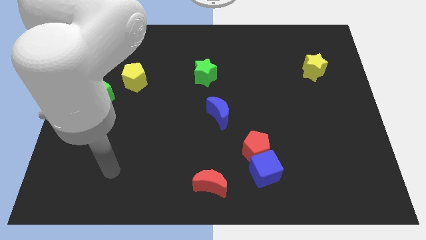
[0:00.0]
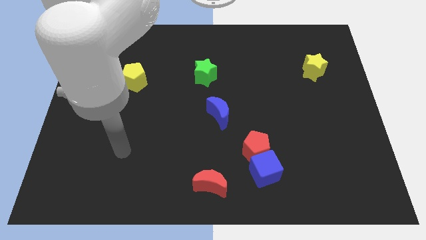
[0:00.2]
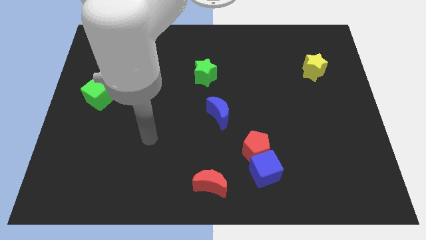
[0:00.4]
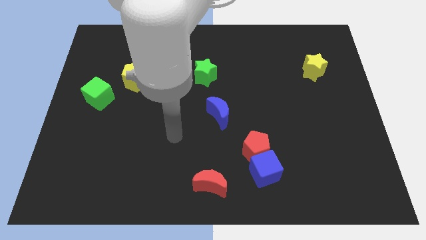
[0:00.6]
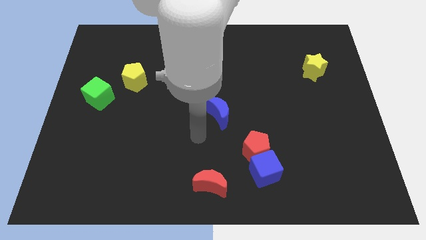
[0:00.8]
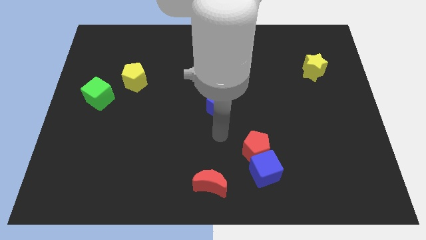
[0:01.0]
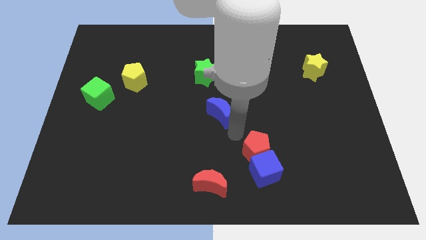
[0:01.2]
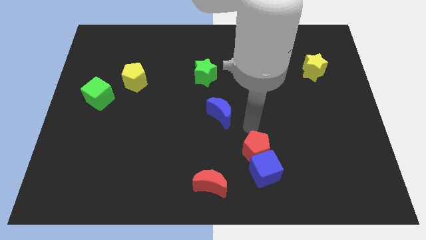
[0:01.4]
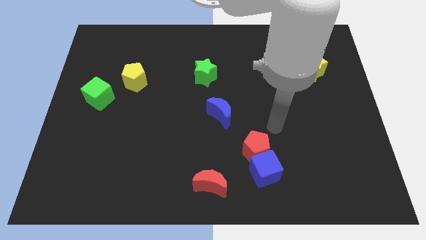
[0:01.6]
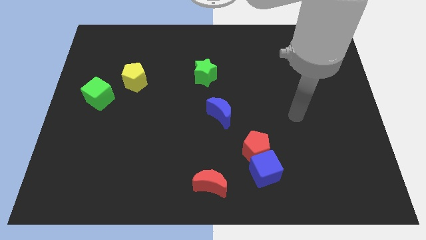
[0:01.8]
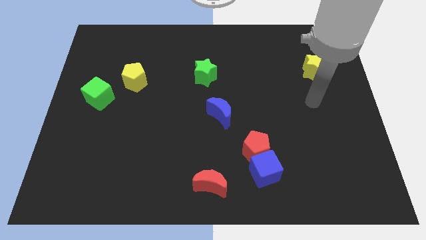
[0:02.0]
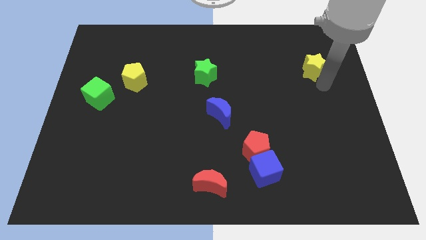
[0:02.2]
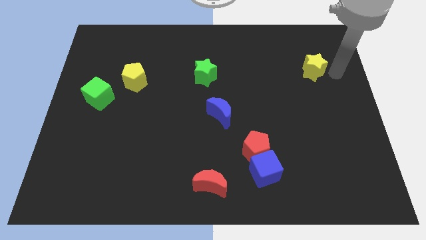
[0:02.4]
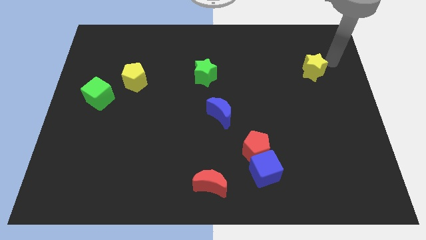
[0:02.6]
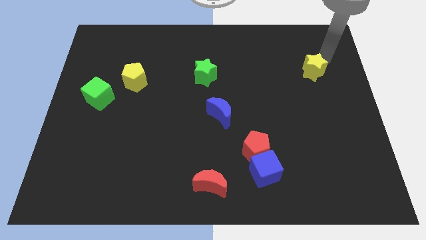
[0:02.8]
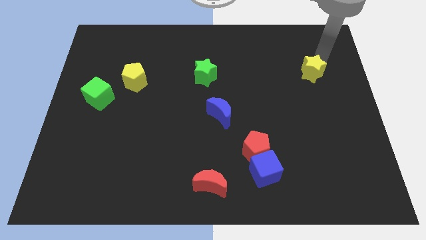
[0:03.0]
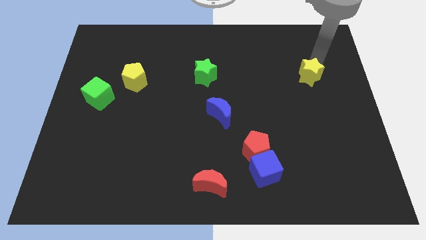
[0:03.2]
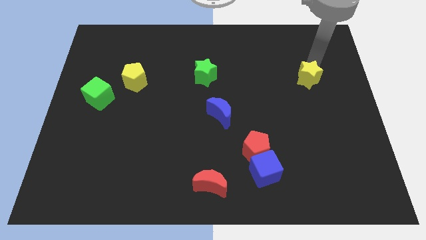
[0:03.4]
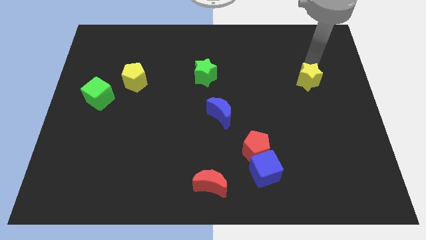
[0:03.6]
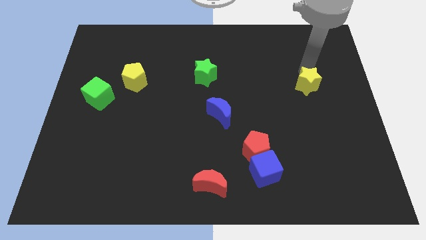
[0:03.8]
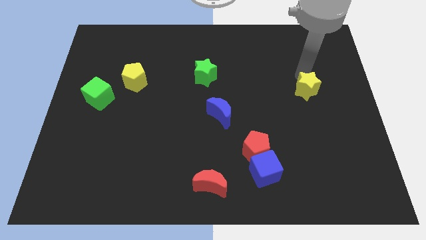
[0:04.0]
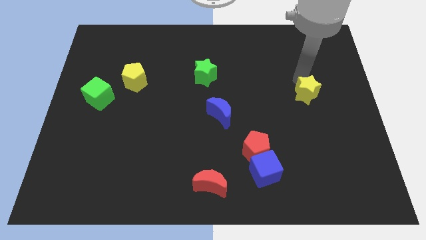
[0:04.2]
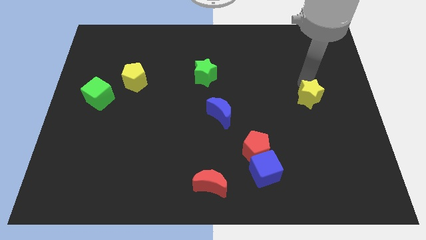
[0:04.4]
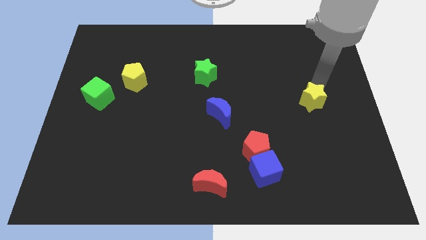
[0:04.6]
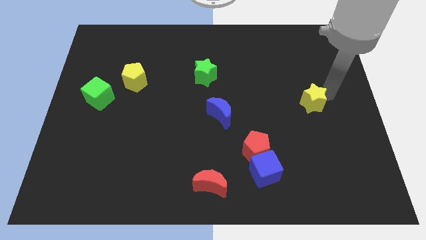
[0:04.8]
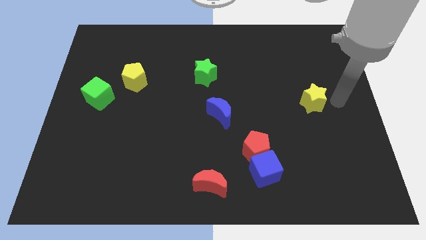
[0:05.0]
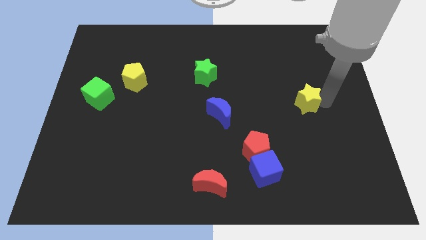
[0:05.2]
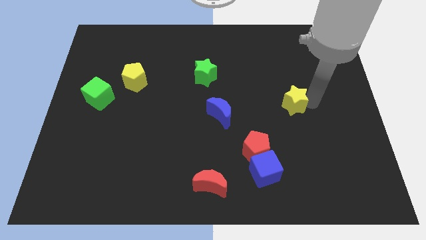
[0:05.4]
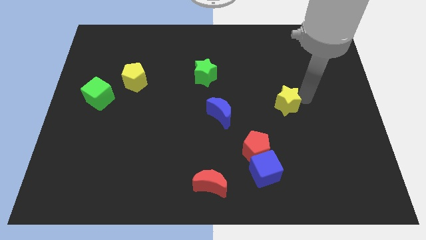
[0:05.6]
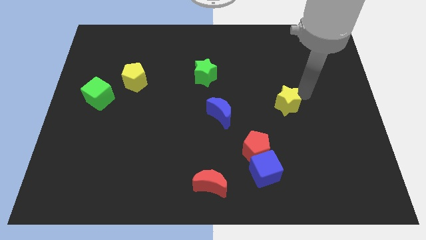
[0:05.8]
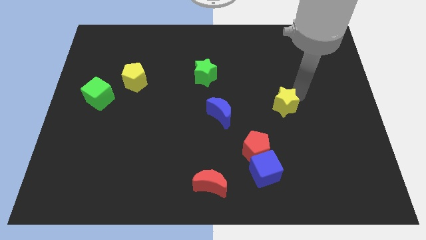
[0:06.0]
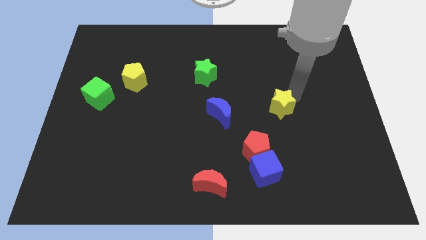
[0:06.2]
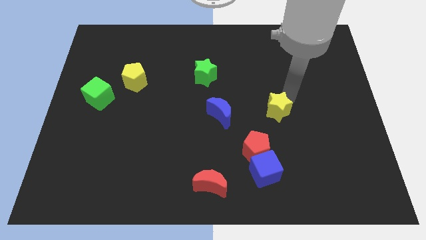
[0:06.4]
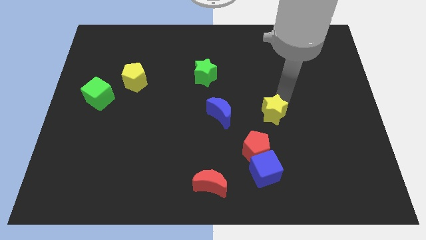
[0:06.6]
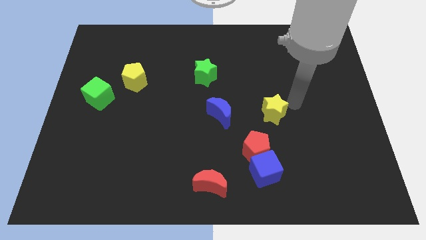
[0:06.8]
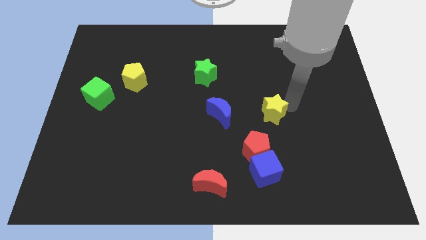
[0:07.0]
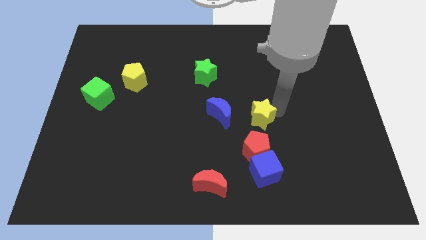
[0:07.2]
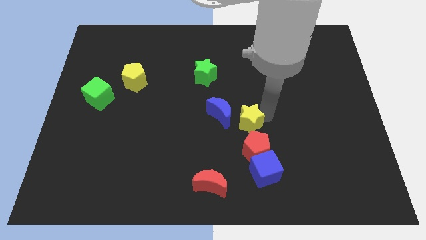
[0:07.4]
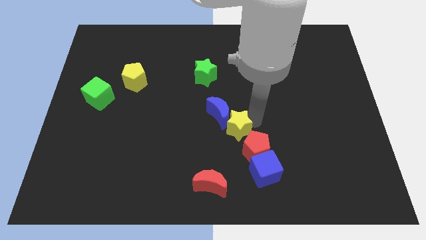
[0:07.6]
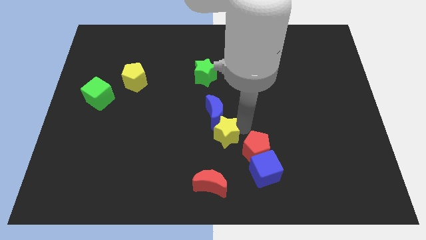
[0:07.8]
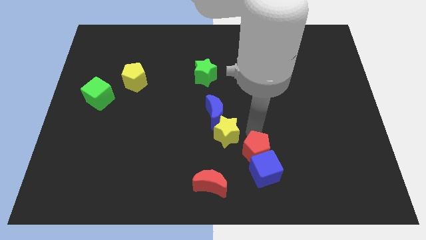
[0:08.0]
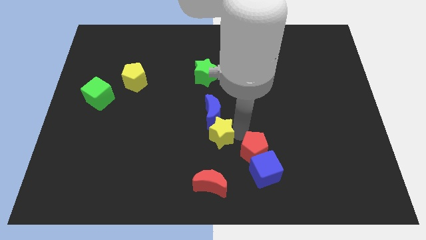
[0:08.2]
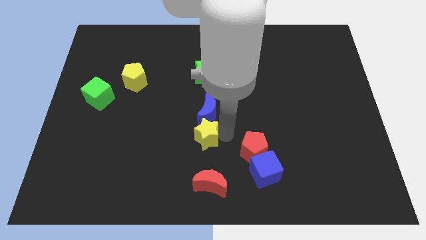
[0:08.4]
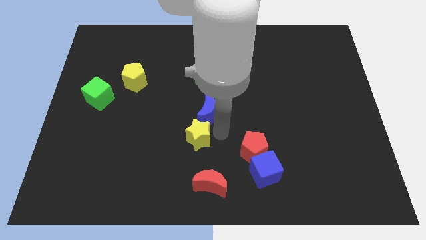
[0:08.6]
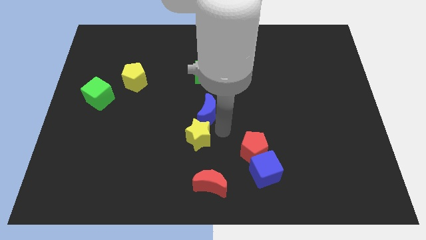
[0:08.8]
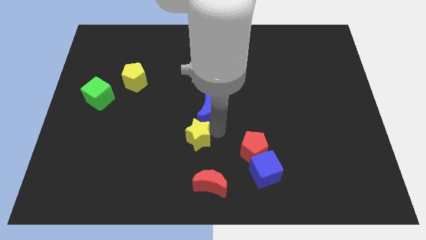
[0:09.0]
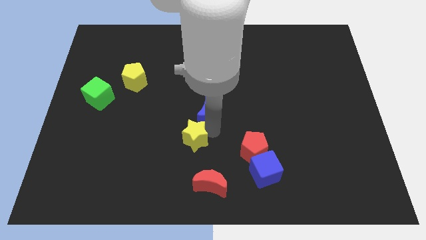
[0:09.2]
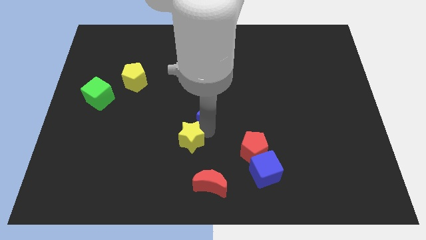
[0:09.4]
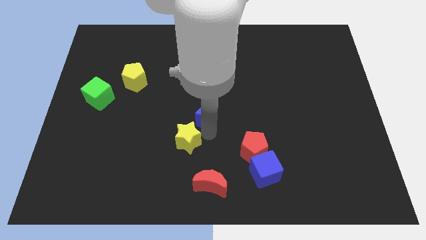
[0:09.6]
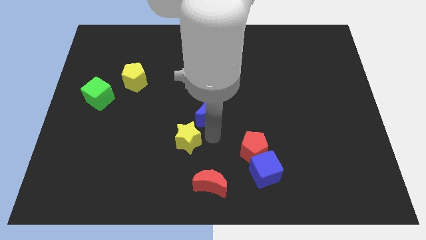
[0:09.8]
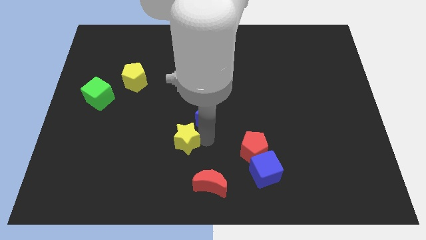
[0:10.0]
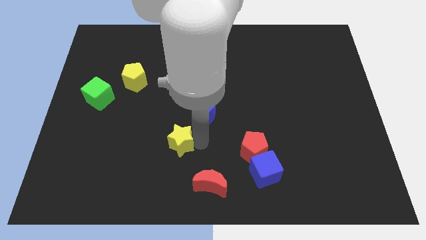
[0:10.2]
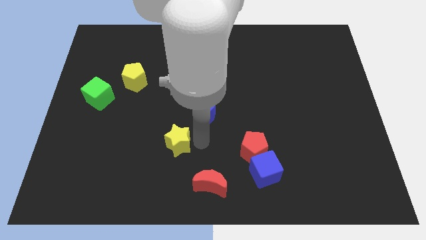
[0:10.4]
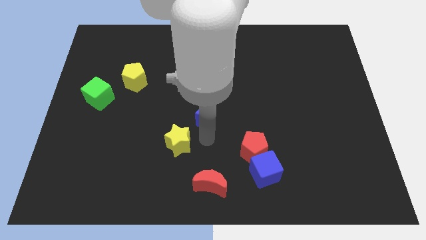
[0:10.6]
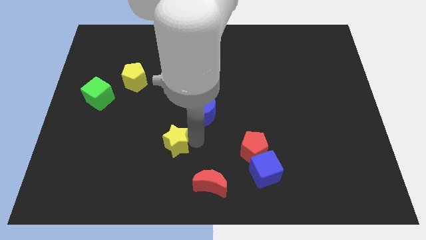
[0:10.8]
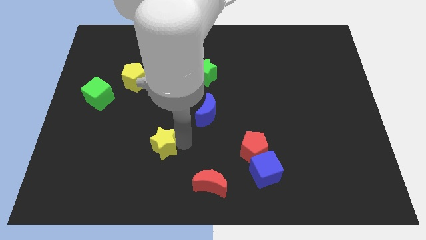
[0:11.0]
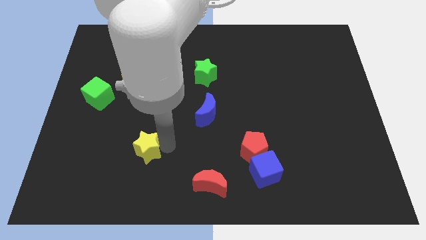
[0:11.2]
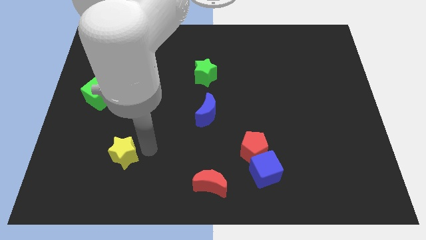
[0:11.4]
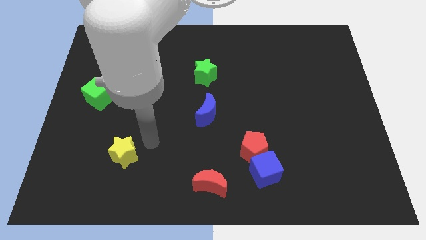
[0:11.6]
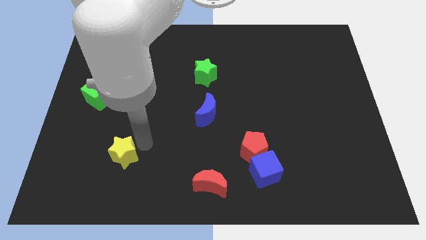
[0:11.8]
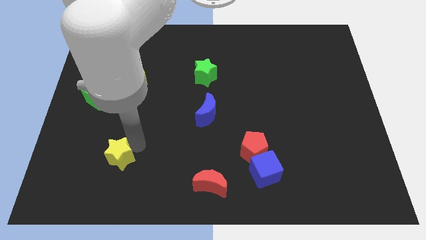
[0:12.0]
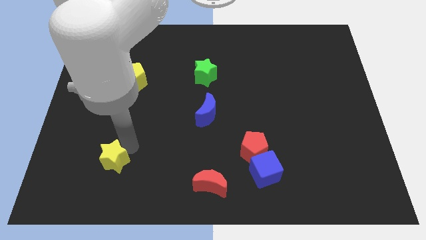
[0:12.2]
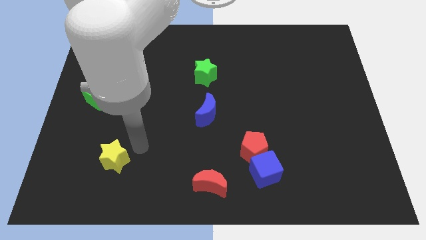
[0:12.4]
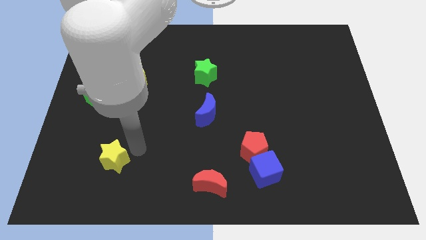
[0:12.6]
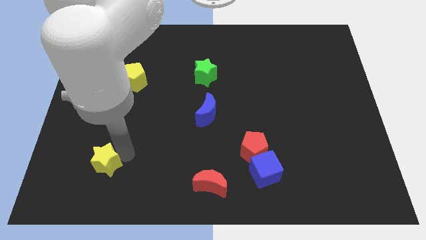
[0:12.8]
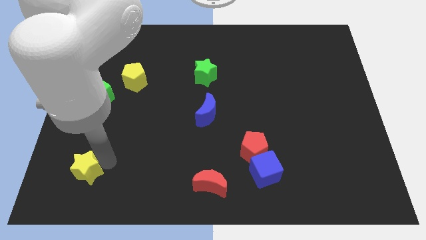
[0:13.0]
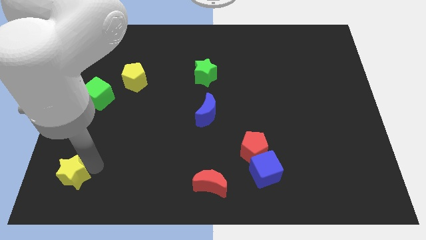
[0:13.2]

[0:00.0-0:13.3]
move the yellow star to the bottom left
